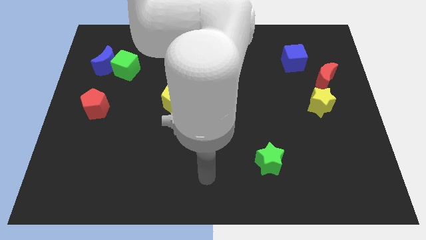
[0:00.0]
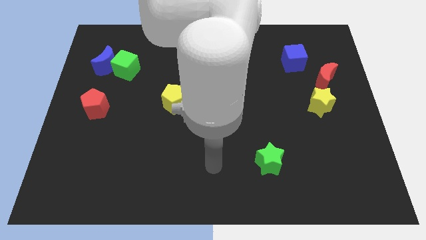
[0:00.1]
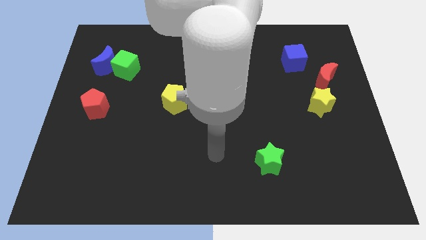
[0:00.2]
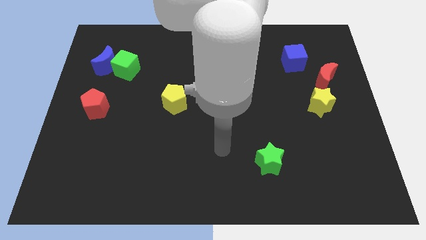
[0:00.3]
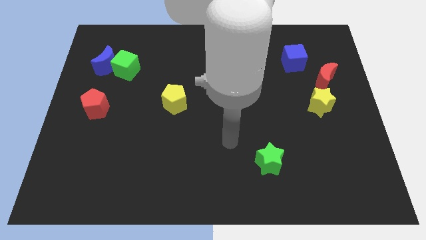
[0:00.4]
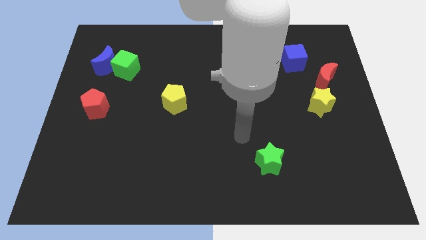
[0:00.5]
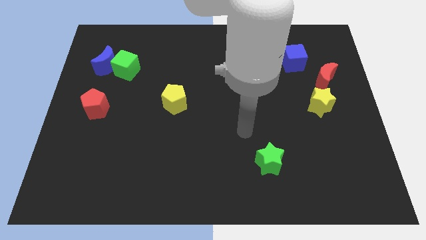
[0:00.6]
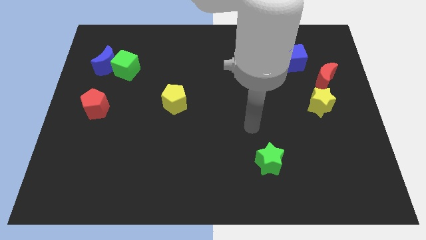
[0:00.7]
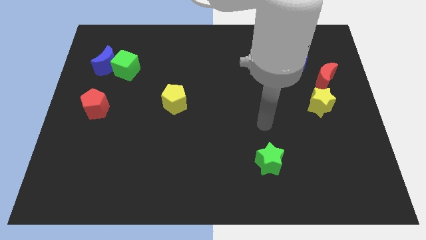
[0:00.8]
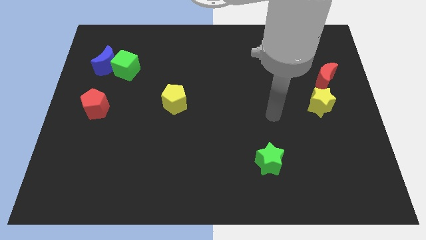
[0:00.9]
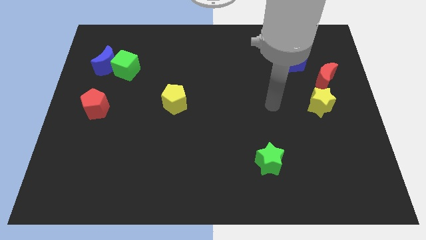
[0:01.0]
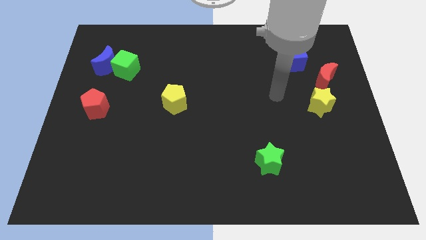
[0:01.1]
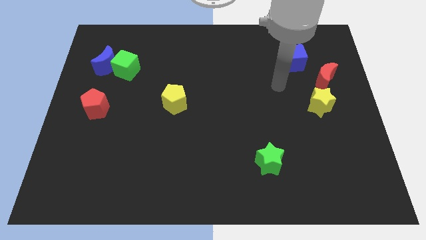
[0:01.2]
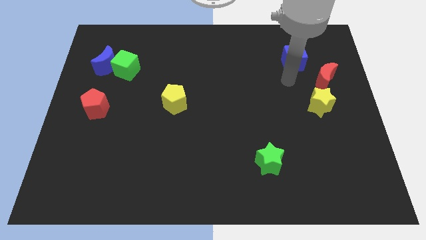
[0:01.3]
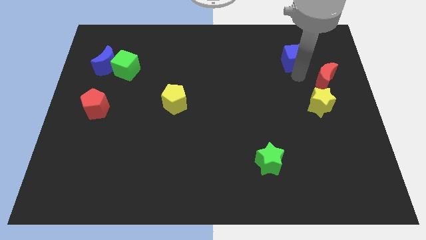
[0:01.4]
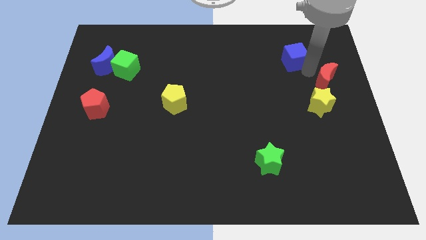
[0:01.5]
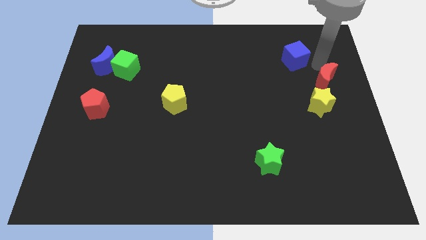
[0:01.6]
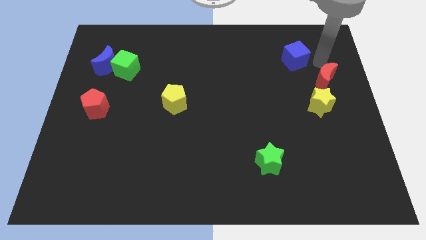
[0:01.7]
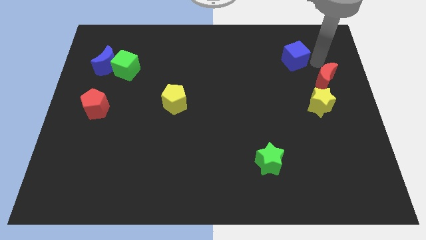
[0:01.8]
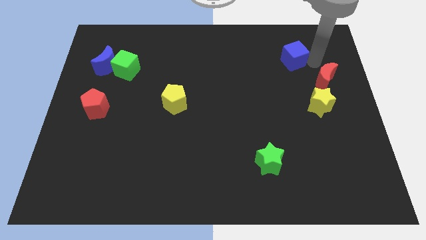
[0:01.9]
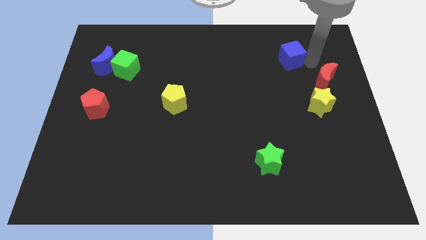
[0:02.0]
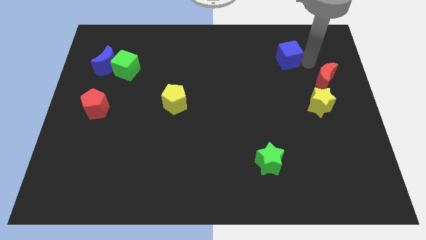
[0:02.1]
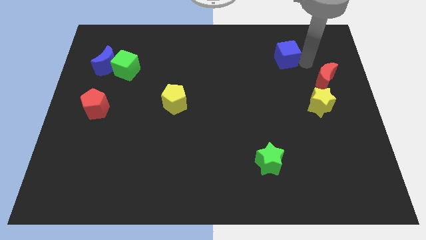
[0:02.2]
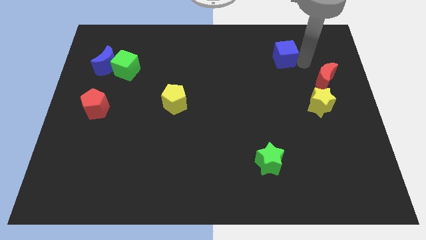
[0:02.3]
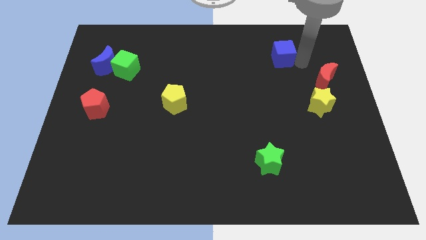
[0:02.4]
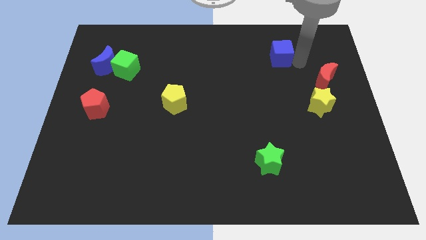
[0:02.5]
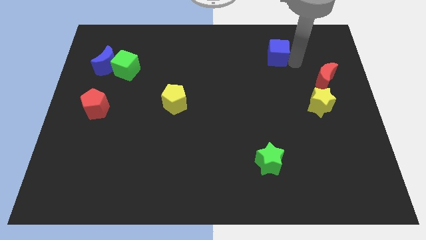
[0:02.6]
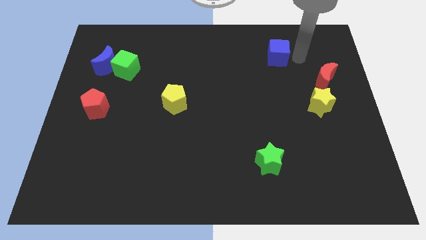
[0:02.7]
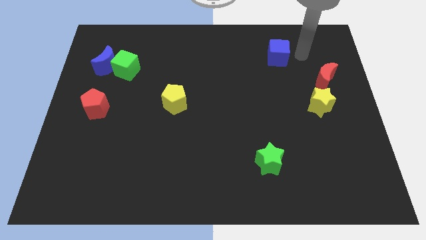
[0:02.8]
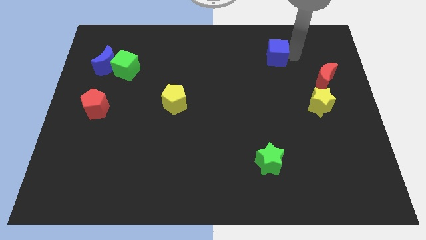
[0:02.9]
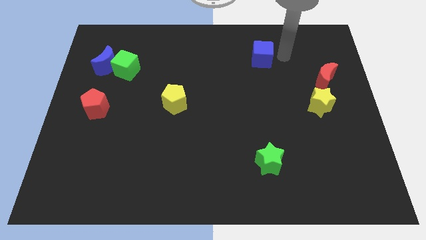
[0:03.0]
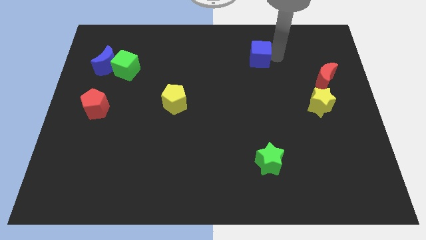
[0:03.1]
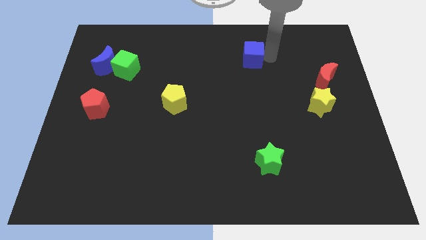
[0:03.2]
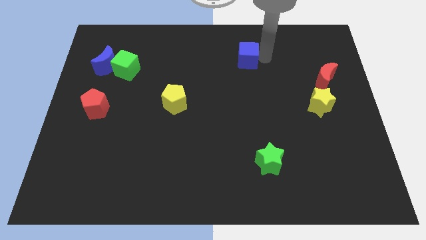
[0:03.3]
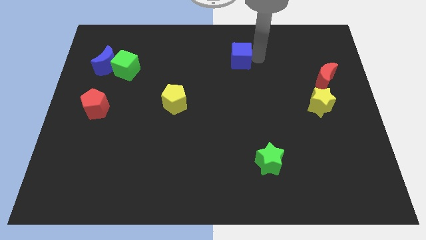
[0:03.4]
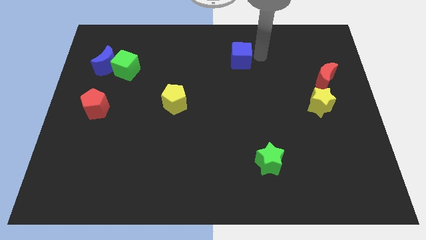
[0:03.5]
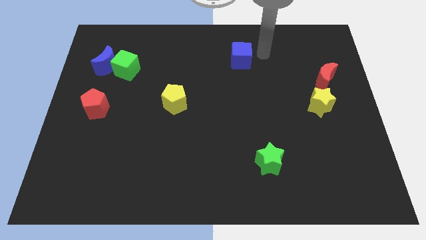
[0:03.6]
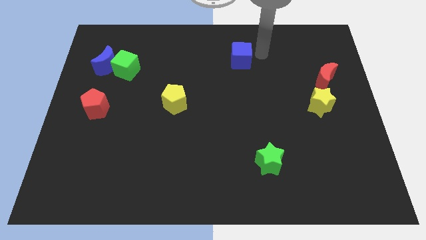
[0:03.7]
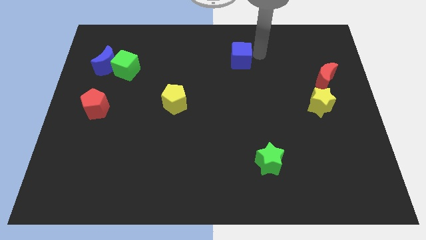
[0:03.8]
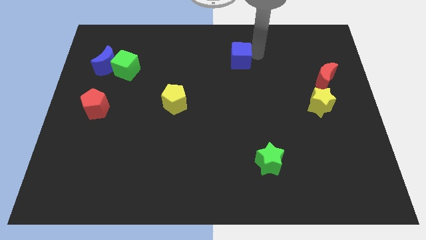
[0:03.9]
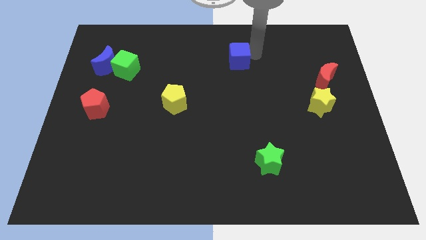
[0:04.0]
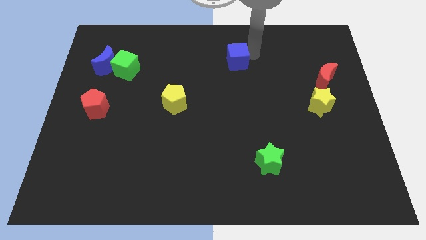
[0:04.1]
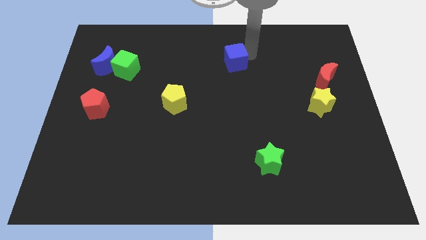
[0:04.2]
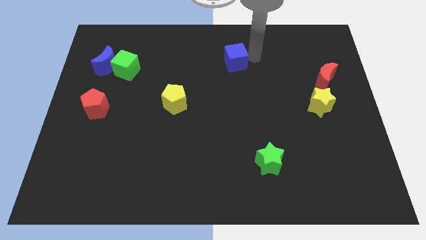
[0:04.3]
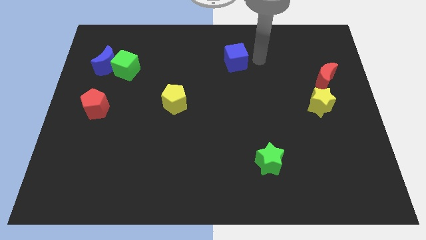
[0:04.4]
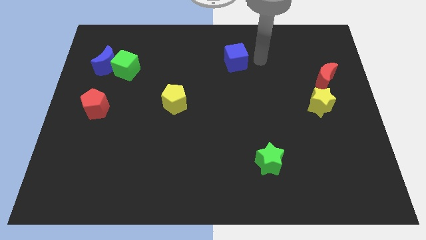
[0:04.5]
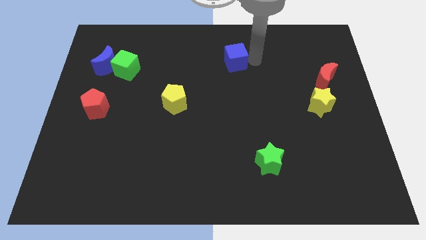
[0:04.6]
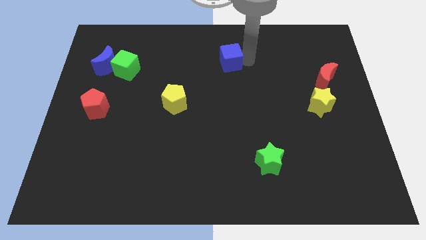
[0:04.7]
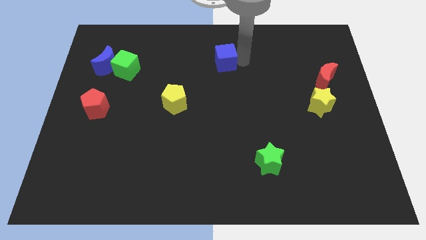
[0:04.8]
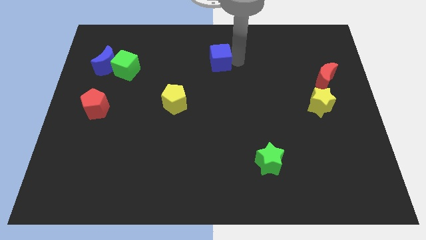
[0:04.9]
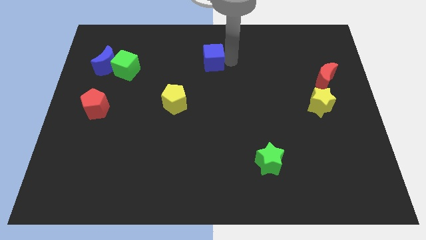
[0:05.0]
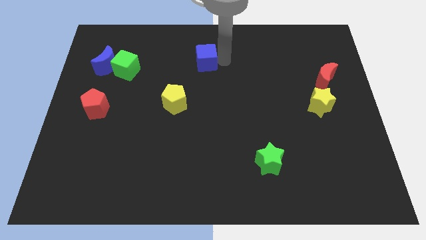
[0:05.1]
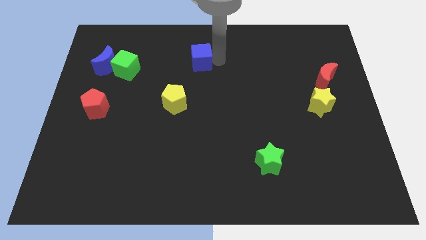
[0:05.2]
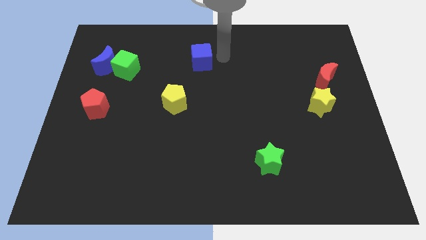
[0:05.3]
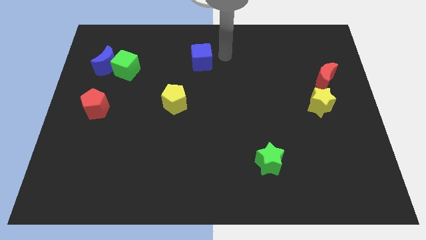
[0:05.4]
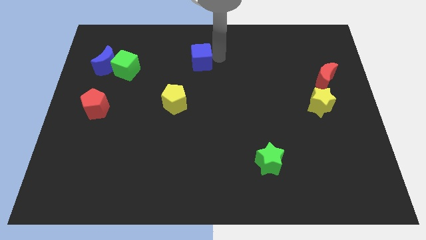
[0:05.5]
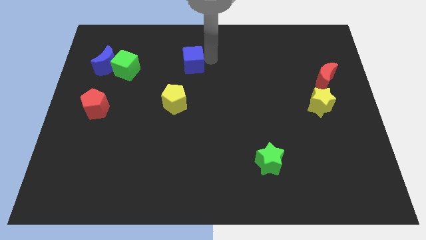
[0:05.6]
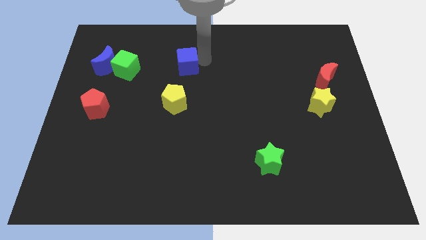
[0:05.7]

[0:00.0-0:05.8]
move the blue cube to the right side of the green cube

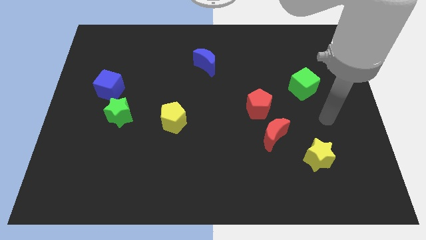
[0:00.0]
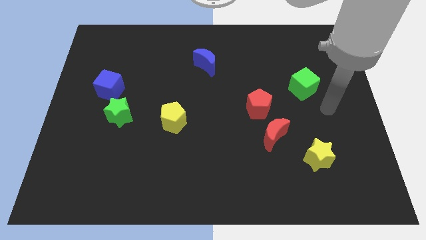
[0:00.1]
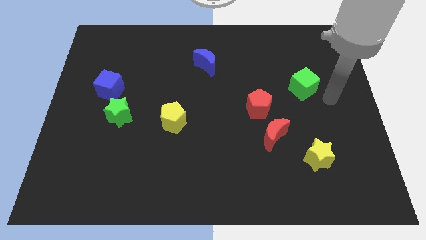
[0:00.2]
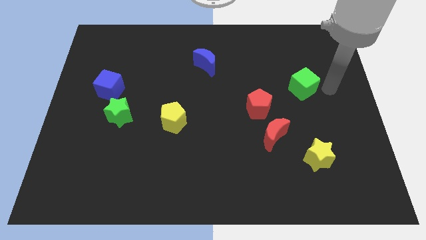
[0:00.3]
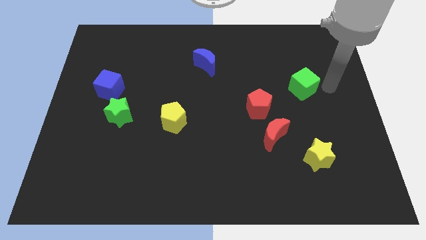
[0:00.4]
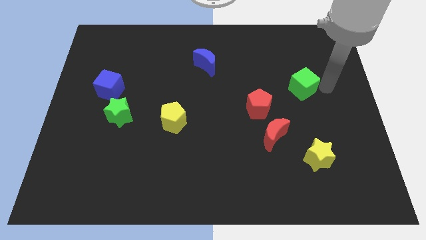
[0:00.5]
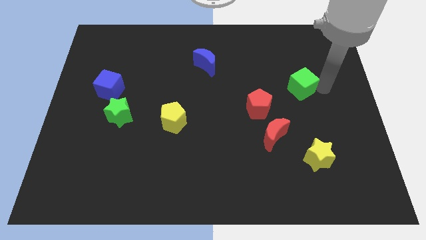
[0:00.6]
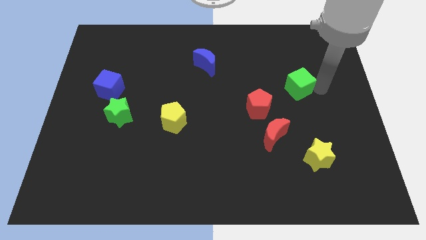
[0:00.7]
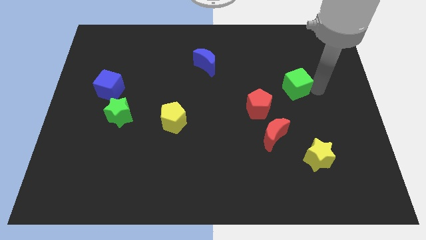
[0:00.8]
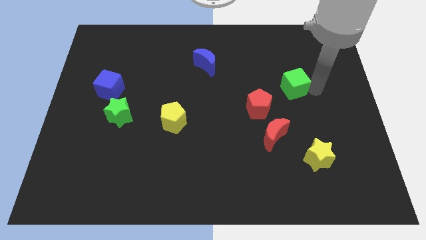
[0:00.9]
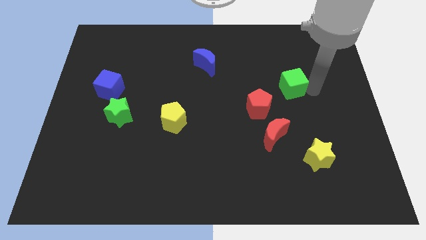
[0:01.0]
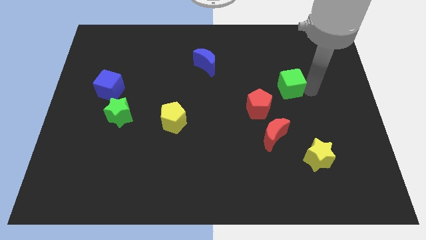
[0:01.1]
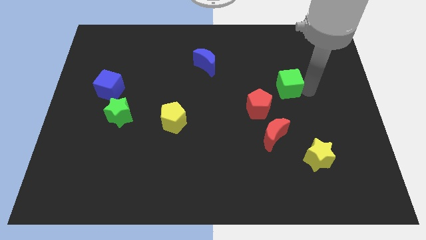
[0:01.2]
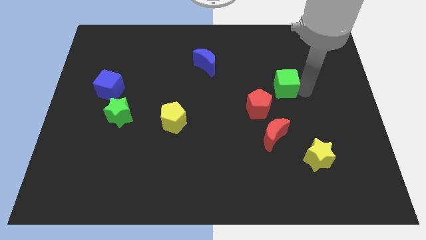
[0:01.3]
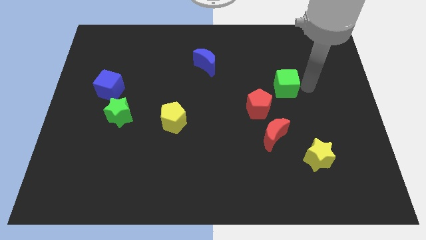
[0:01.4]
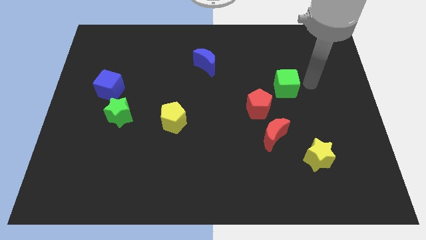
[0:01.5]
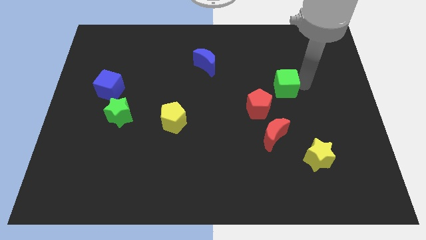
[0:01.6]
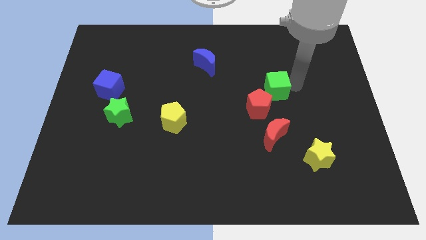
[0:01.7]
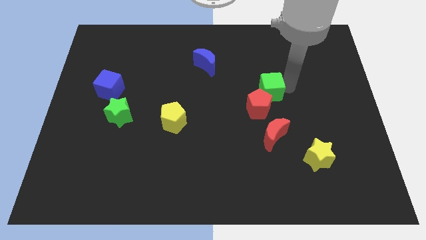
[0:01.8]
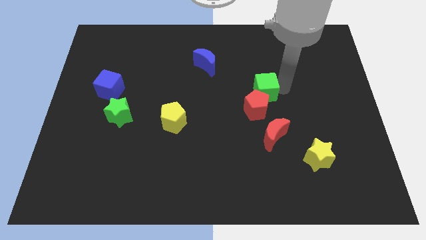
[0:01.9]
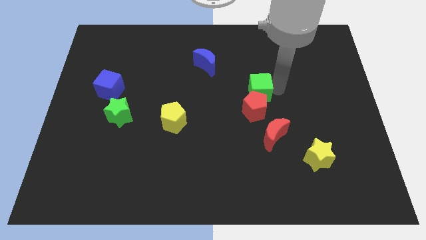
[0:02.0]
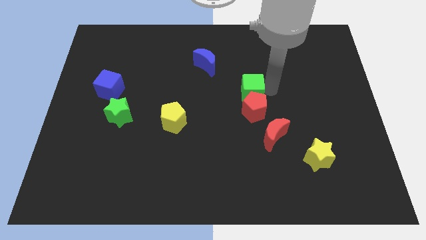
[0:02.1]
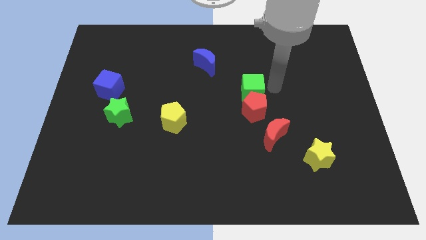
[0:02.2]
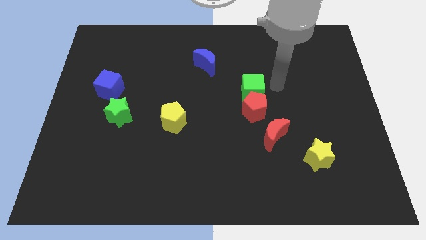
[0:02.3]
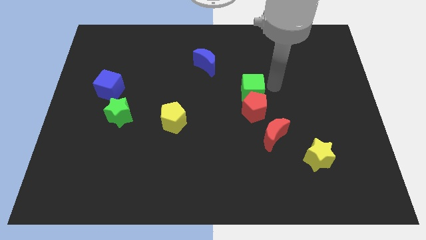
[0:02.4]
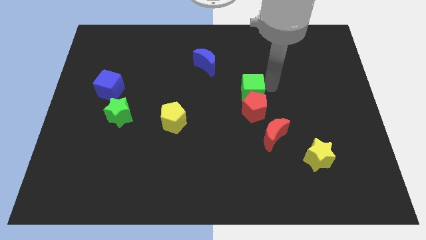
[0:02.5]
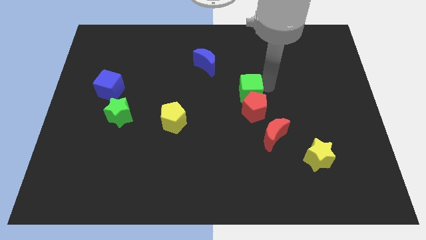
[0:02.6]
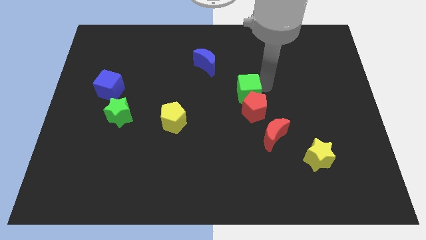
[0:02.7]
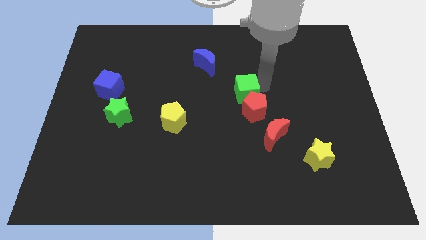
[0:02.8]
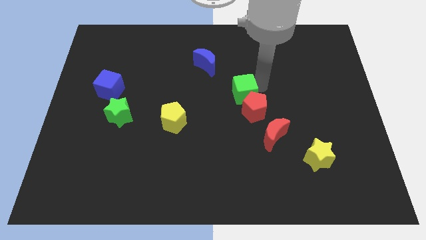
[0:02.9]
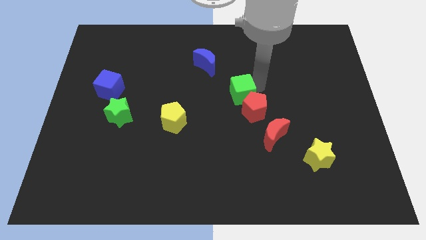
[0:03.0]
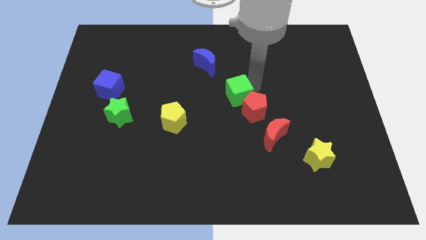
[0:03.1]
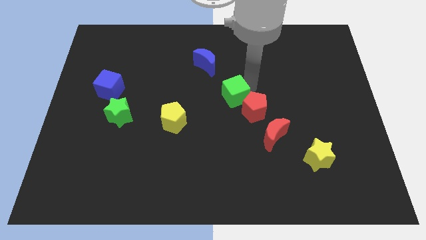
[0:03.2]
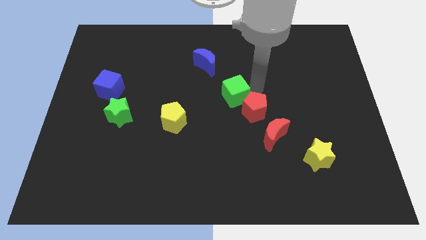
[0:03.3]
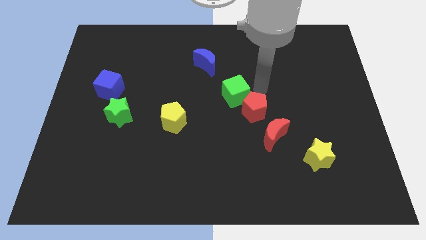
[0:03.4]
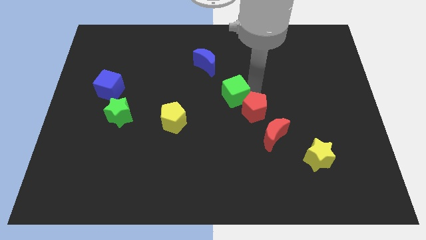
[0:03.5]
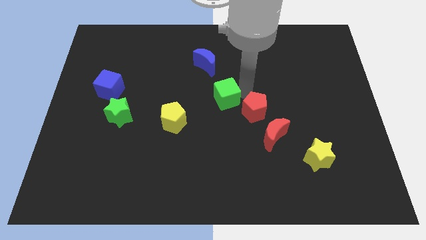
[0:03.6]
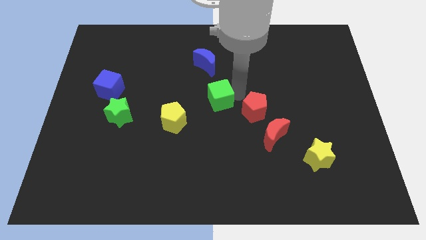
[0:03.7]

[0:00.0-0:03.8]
put the green cube to the top right side of the yellow pentagon
